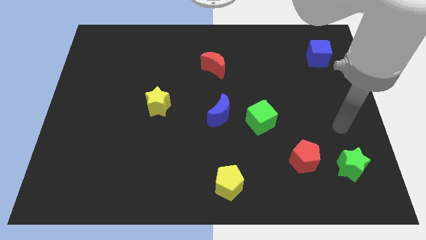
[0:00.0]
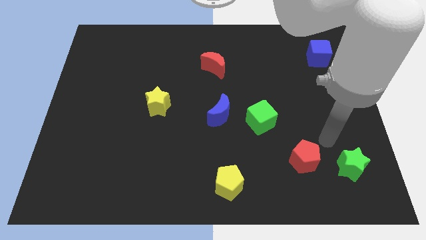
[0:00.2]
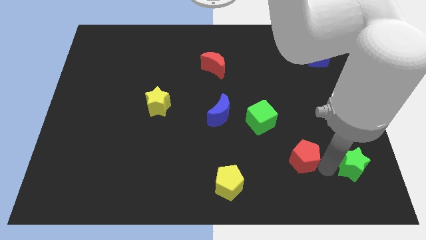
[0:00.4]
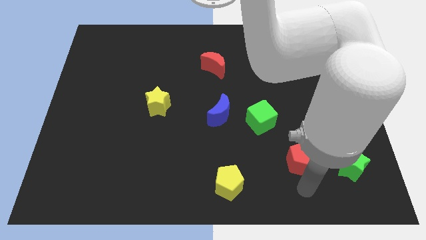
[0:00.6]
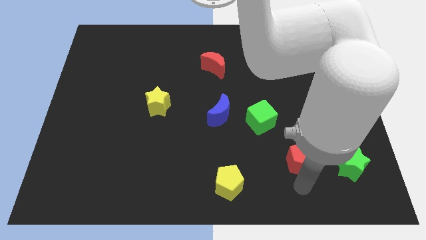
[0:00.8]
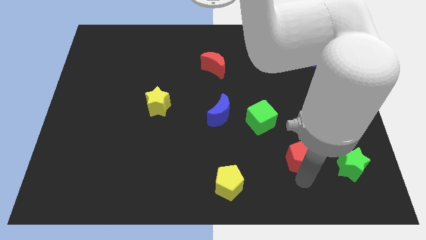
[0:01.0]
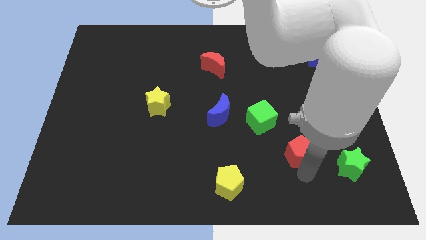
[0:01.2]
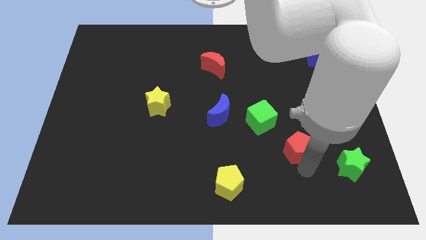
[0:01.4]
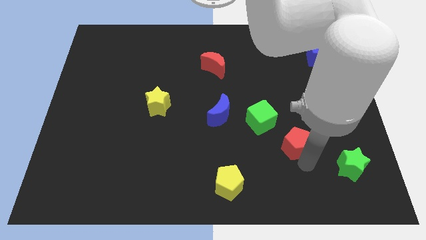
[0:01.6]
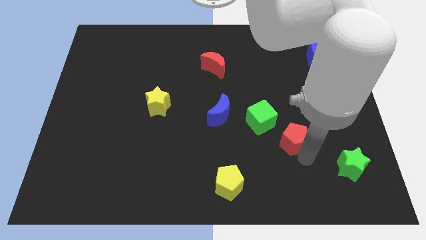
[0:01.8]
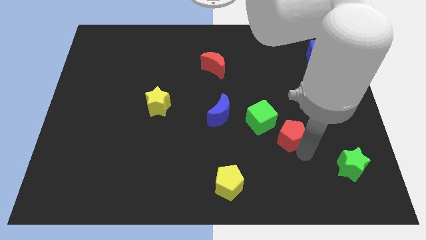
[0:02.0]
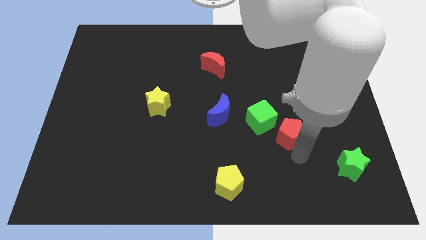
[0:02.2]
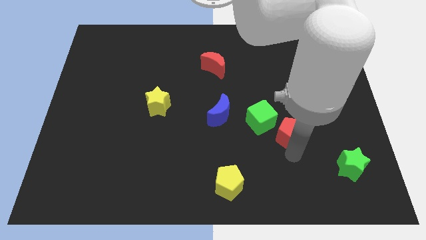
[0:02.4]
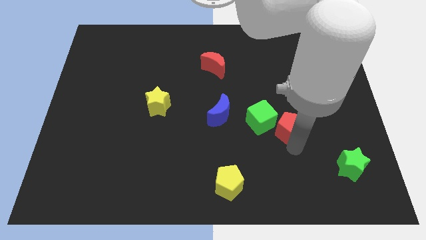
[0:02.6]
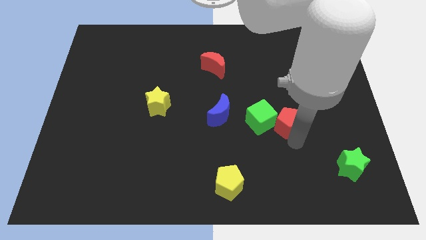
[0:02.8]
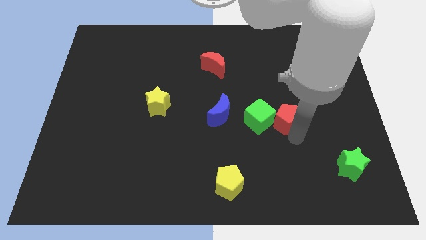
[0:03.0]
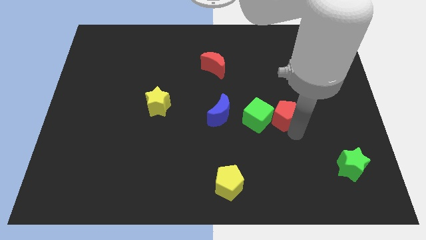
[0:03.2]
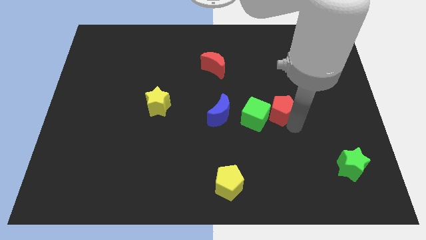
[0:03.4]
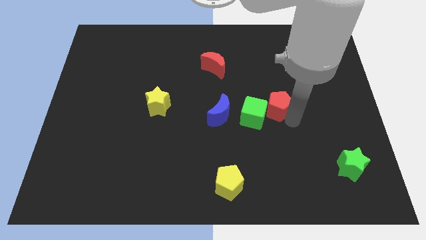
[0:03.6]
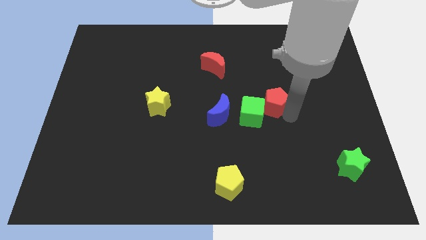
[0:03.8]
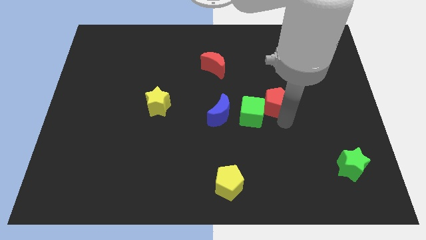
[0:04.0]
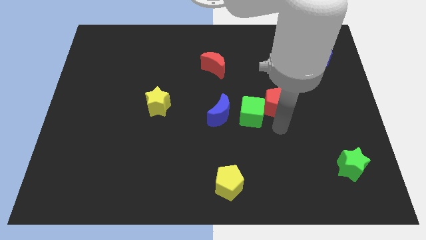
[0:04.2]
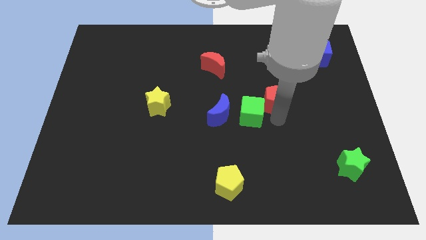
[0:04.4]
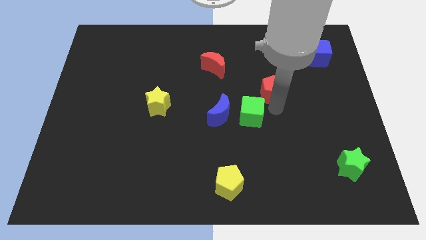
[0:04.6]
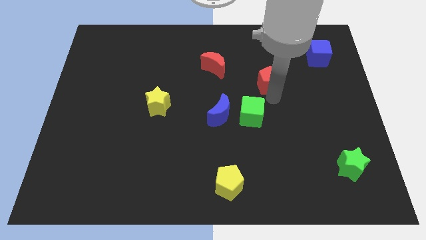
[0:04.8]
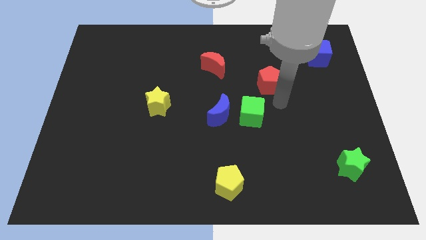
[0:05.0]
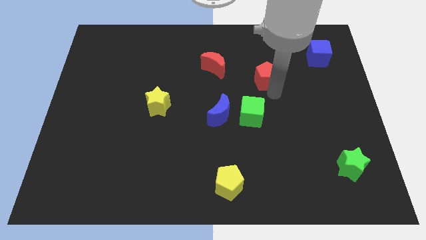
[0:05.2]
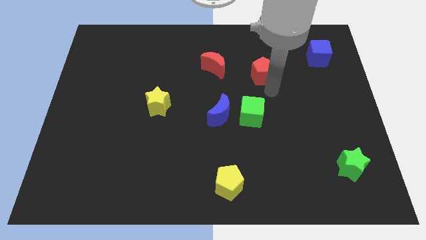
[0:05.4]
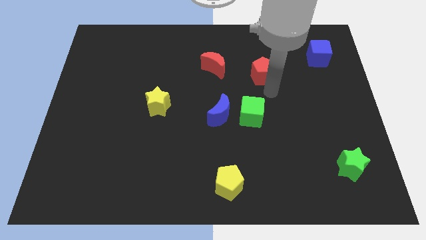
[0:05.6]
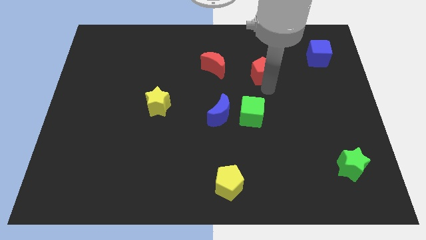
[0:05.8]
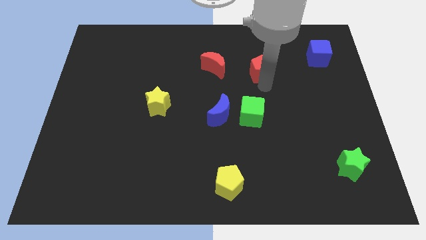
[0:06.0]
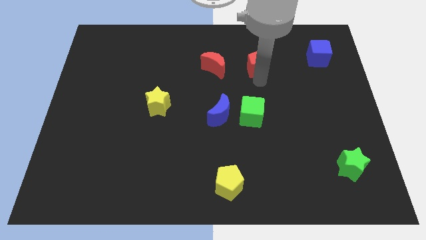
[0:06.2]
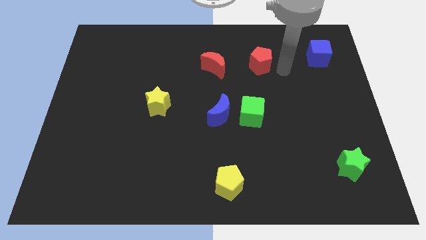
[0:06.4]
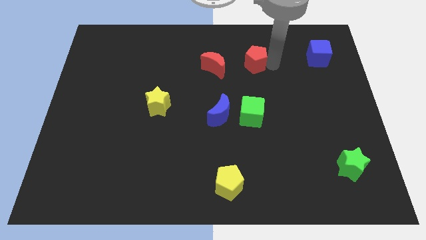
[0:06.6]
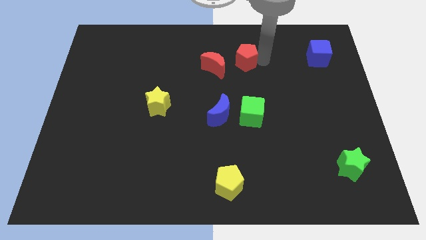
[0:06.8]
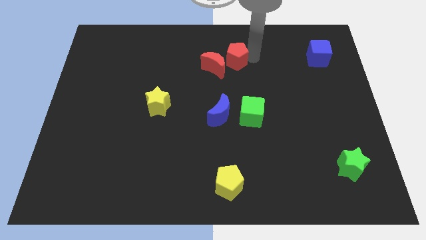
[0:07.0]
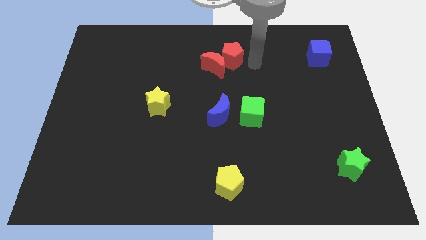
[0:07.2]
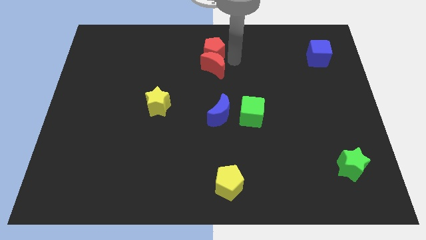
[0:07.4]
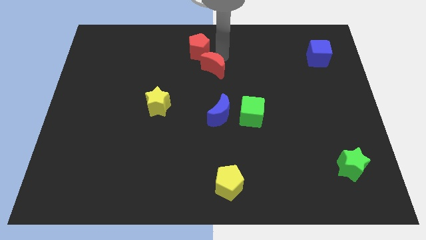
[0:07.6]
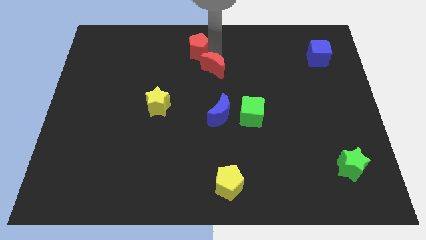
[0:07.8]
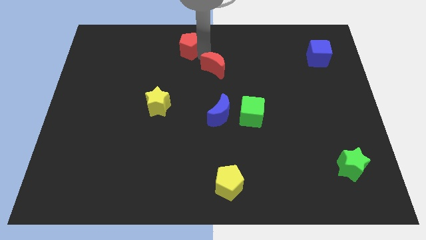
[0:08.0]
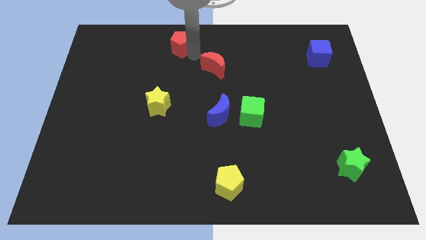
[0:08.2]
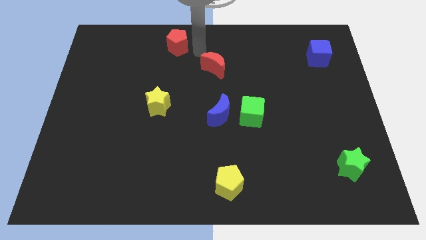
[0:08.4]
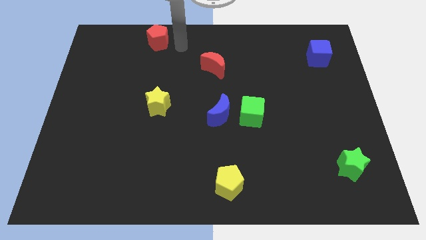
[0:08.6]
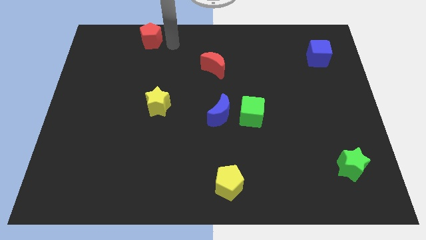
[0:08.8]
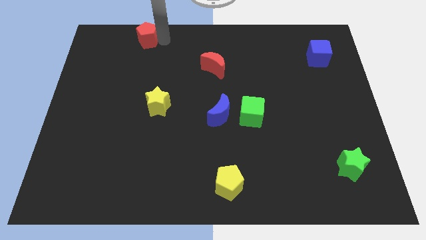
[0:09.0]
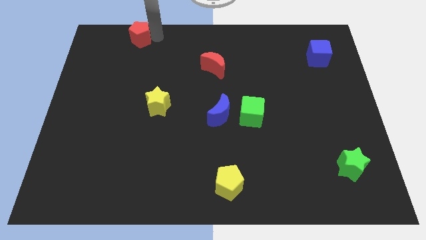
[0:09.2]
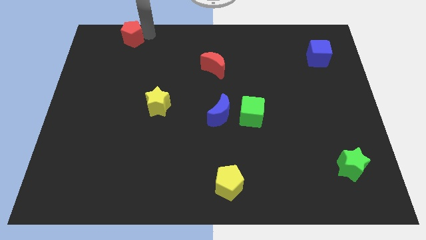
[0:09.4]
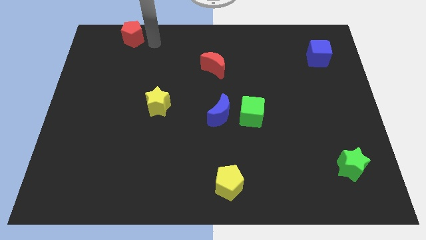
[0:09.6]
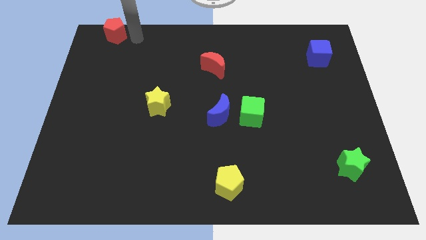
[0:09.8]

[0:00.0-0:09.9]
move the red pentagon to the top left of the board

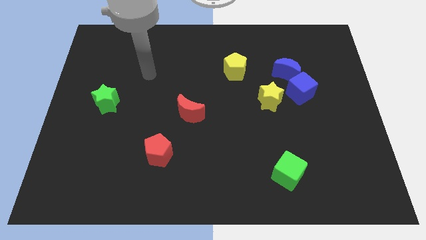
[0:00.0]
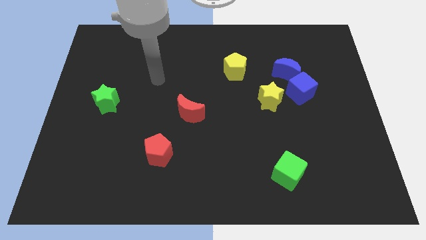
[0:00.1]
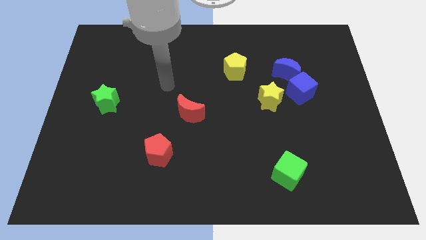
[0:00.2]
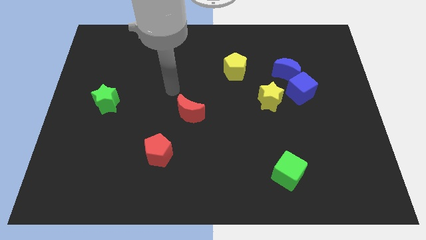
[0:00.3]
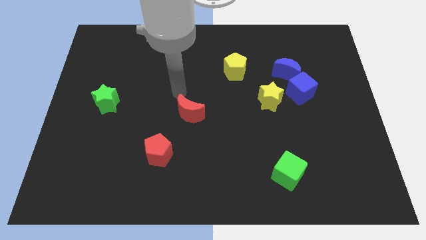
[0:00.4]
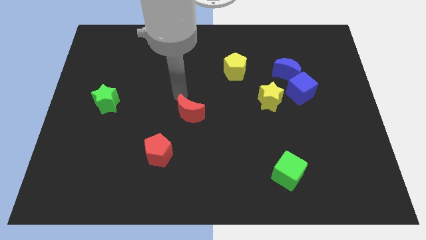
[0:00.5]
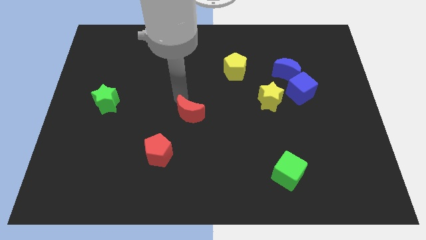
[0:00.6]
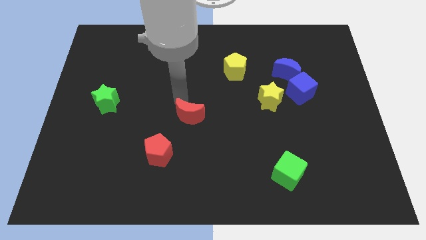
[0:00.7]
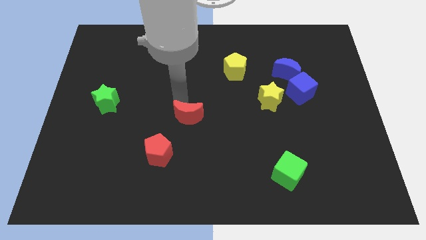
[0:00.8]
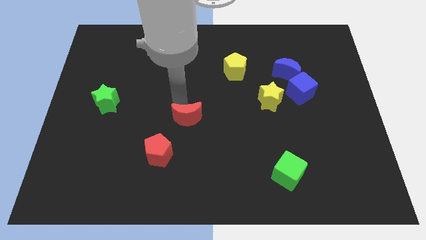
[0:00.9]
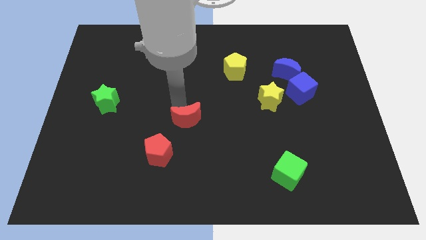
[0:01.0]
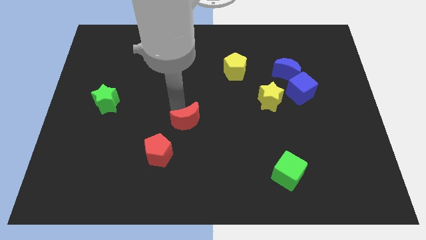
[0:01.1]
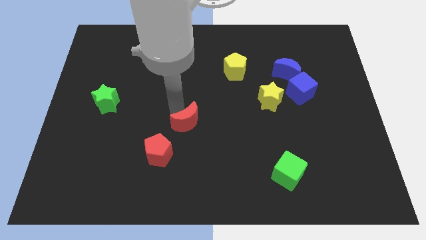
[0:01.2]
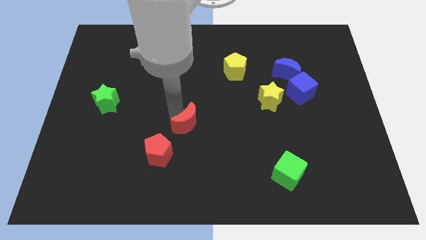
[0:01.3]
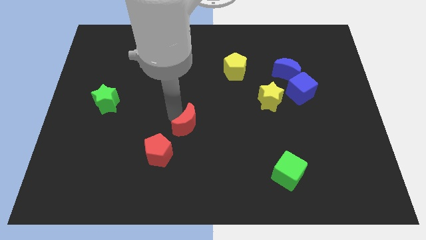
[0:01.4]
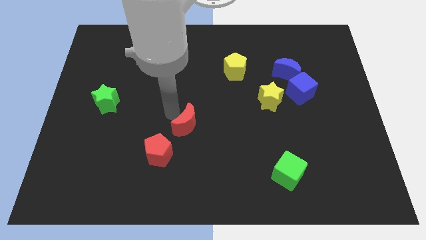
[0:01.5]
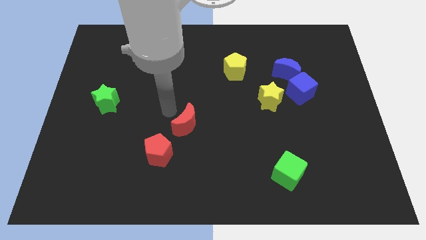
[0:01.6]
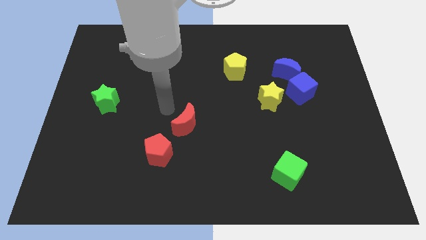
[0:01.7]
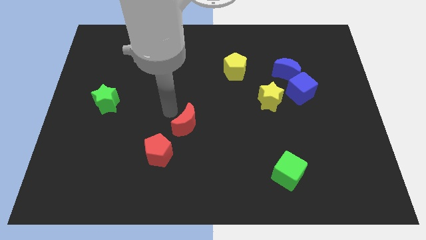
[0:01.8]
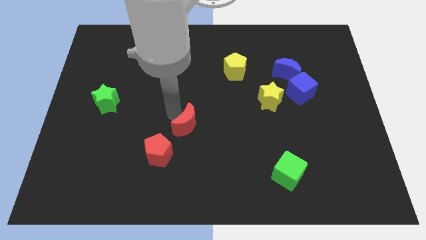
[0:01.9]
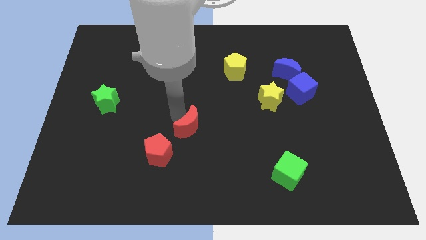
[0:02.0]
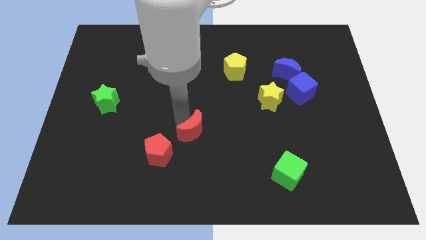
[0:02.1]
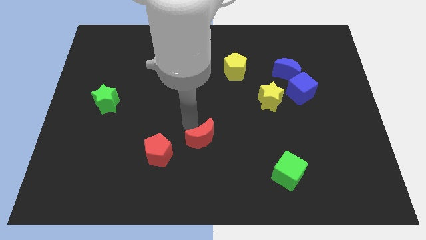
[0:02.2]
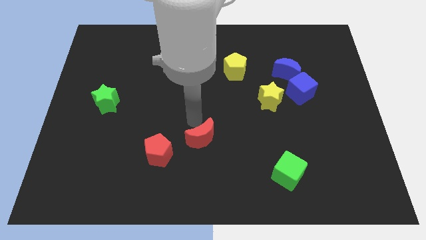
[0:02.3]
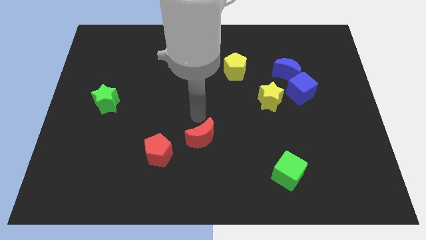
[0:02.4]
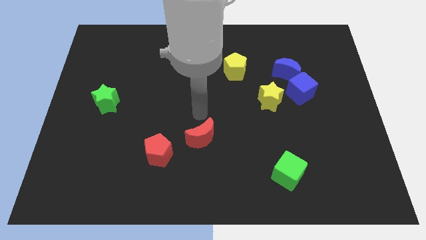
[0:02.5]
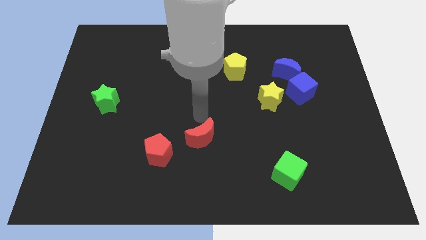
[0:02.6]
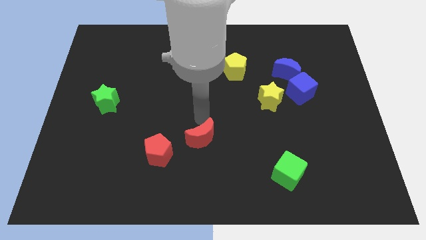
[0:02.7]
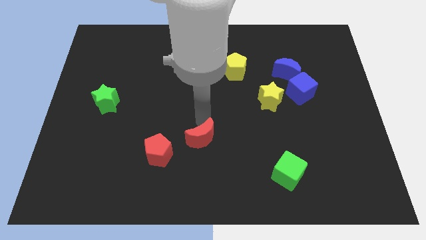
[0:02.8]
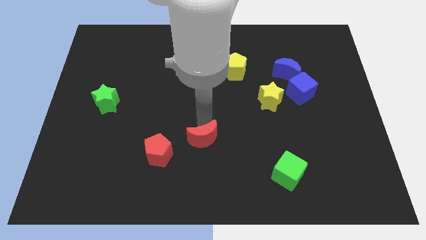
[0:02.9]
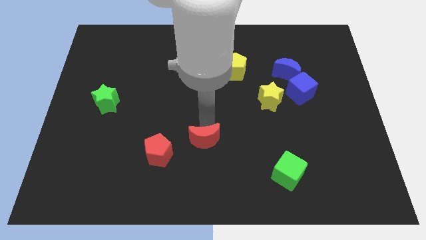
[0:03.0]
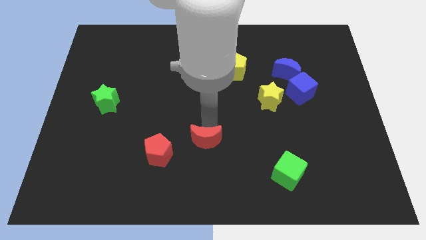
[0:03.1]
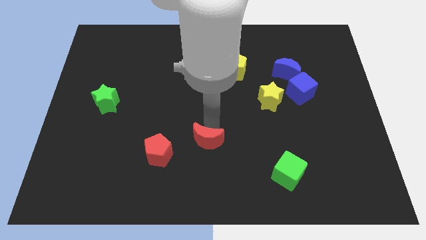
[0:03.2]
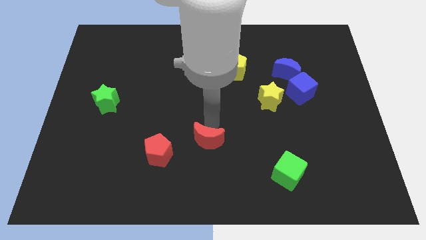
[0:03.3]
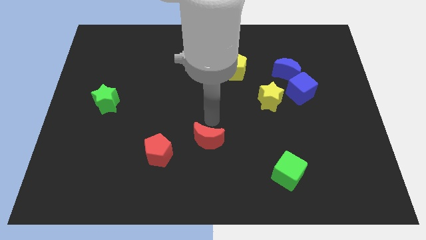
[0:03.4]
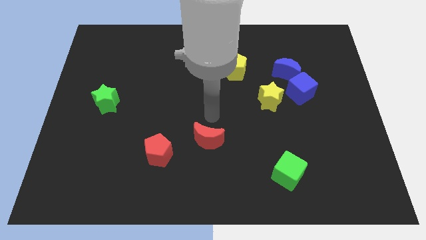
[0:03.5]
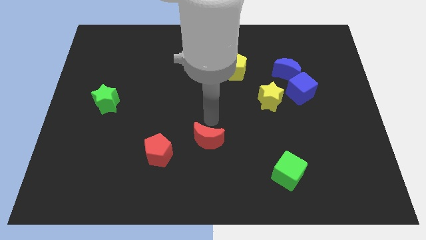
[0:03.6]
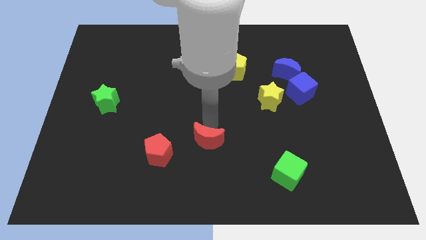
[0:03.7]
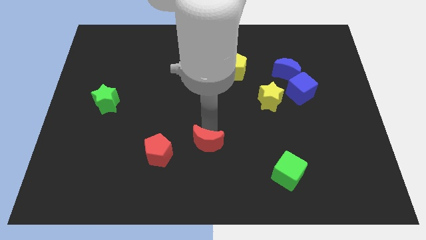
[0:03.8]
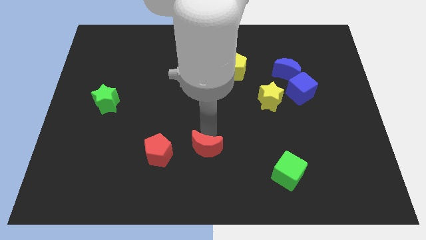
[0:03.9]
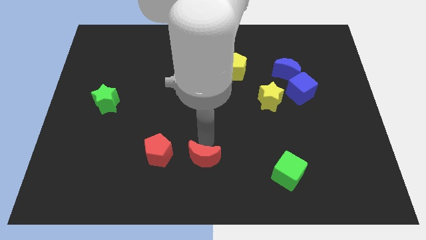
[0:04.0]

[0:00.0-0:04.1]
move the red moon to the bottom side
